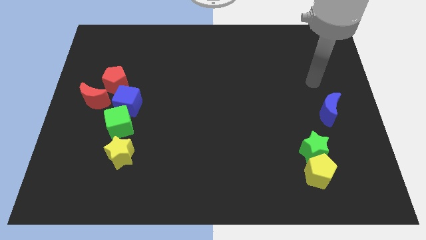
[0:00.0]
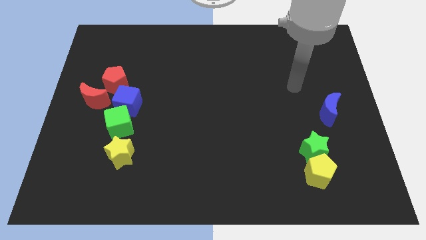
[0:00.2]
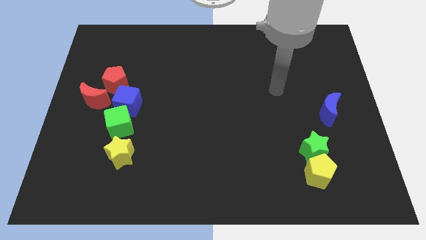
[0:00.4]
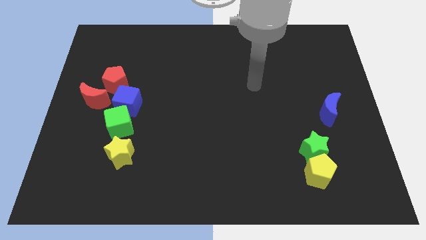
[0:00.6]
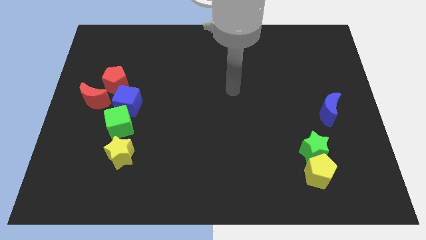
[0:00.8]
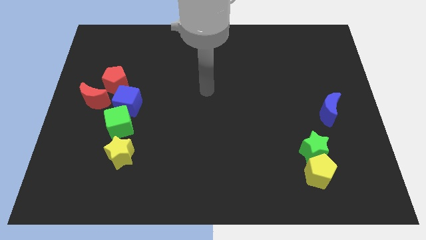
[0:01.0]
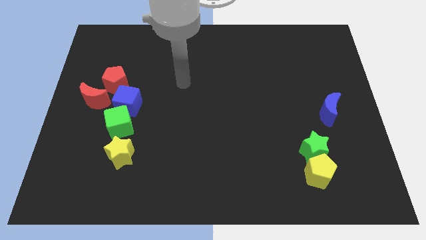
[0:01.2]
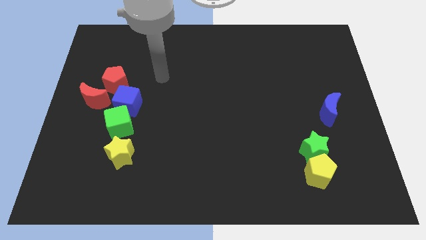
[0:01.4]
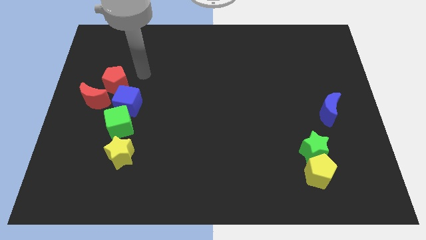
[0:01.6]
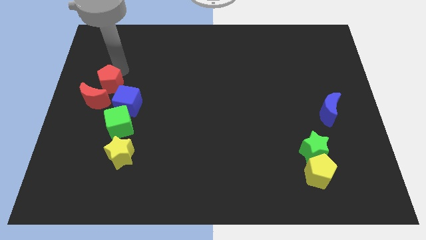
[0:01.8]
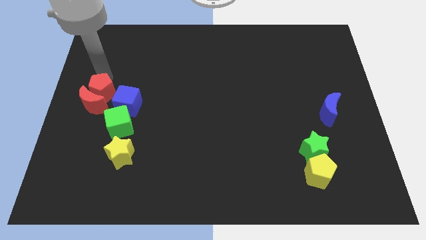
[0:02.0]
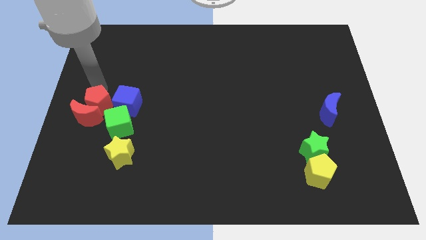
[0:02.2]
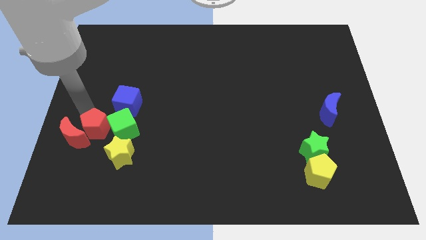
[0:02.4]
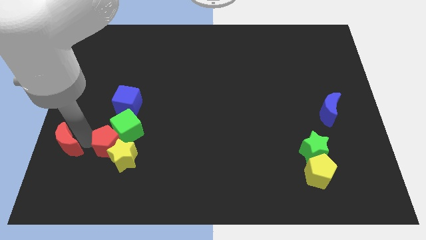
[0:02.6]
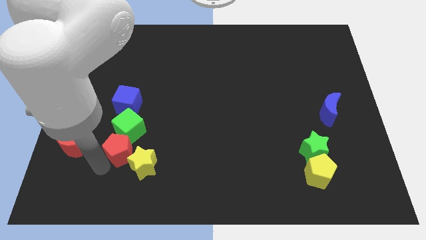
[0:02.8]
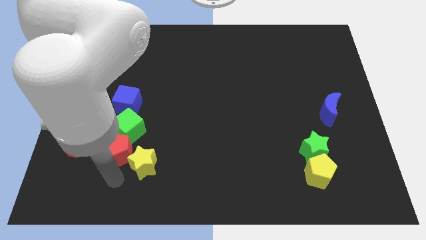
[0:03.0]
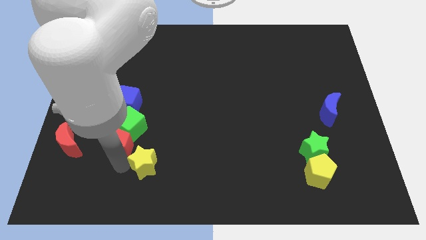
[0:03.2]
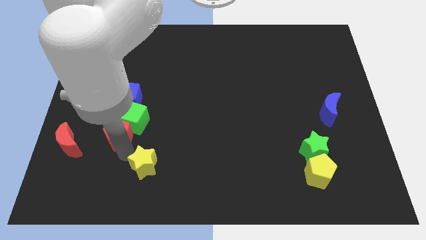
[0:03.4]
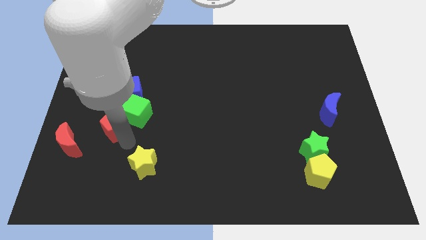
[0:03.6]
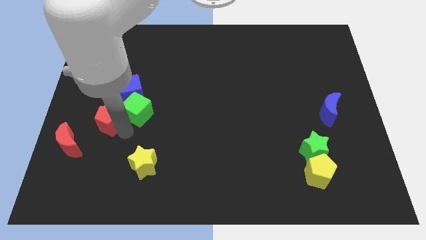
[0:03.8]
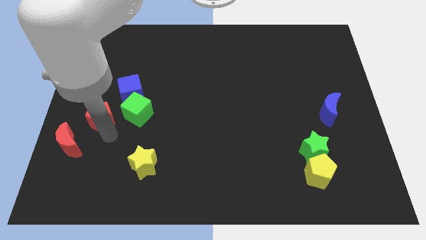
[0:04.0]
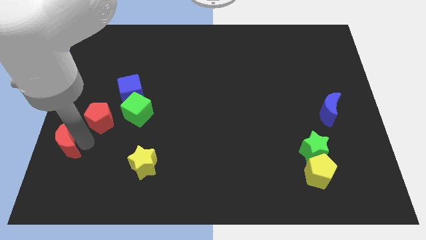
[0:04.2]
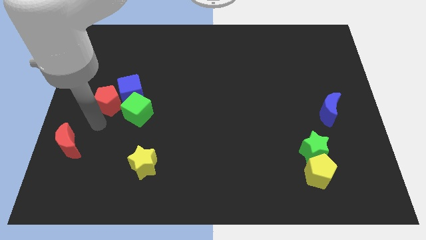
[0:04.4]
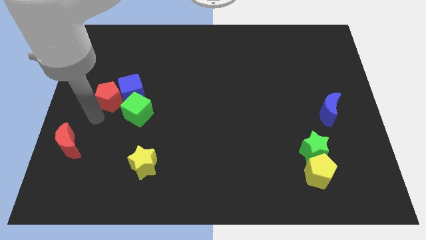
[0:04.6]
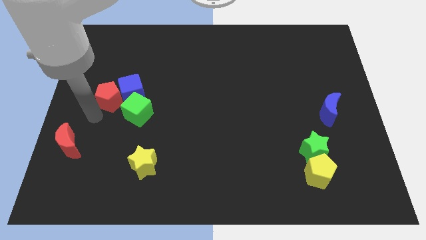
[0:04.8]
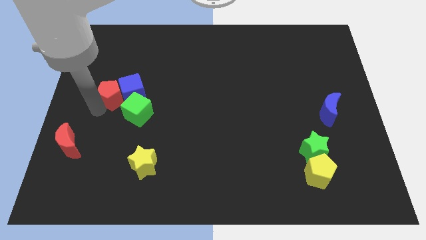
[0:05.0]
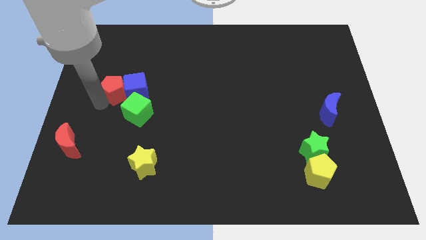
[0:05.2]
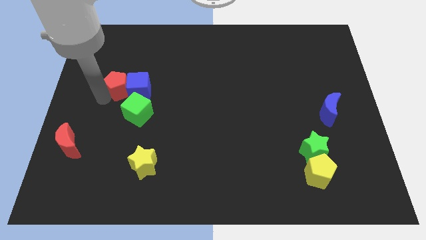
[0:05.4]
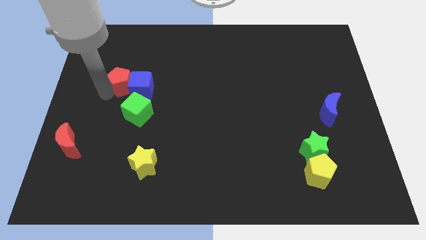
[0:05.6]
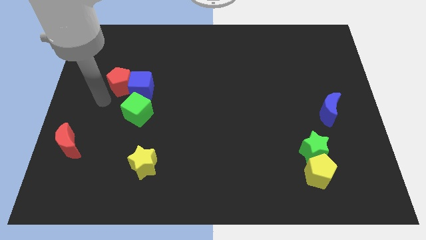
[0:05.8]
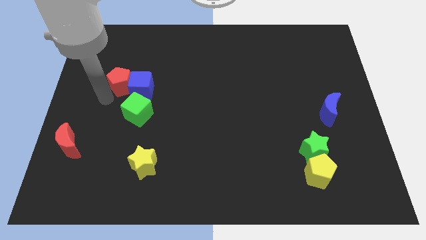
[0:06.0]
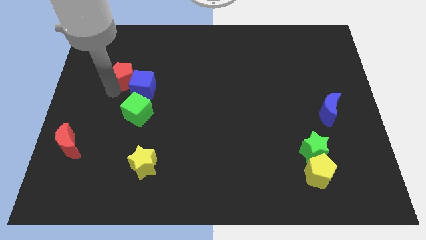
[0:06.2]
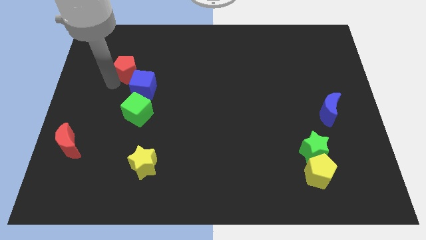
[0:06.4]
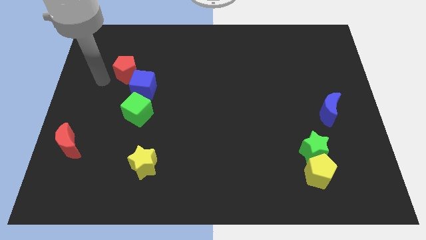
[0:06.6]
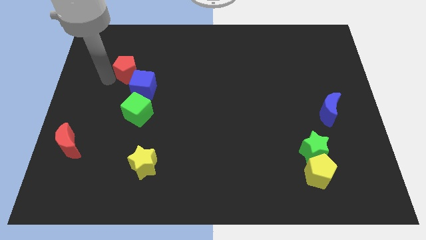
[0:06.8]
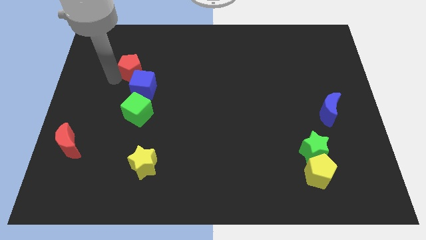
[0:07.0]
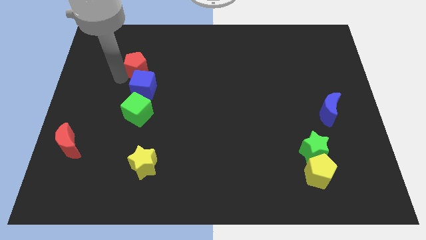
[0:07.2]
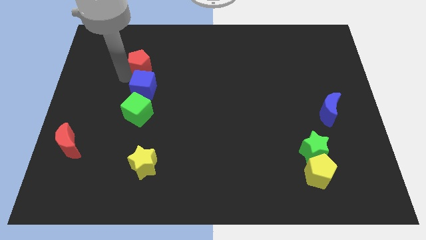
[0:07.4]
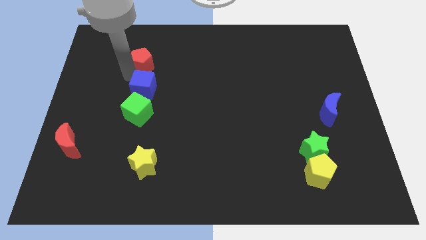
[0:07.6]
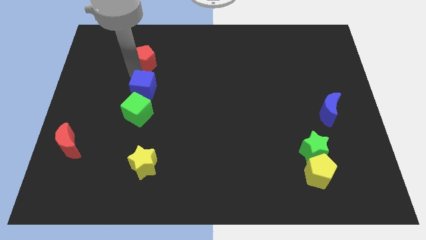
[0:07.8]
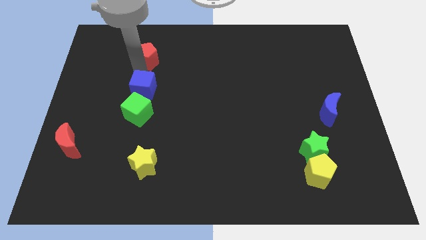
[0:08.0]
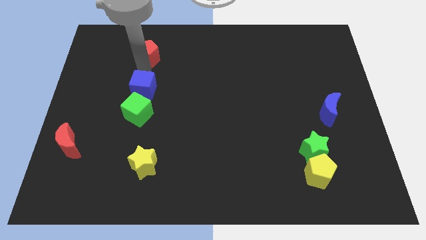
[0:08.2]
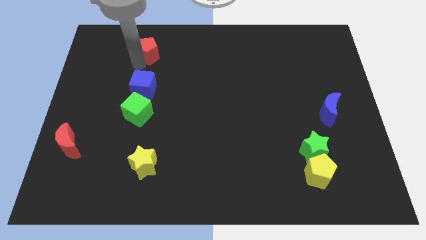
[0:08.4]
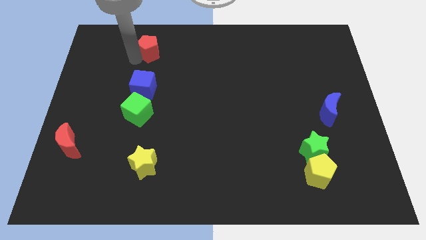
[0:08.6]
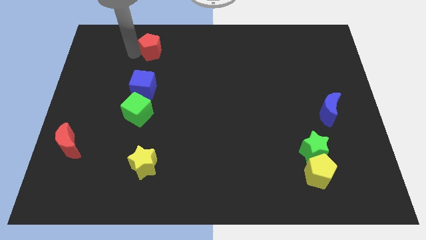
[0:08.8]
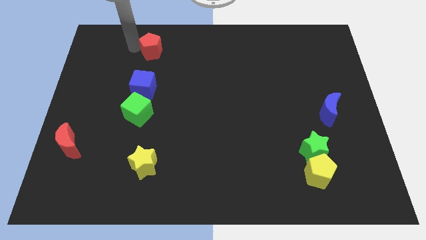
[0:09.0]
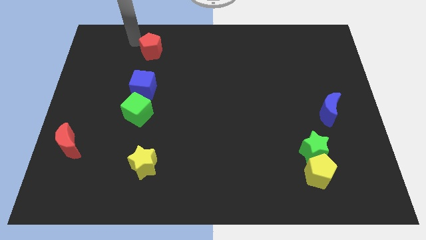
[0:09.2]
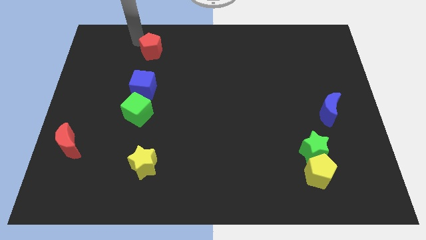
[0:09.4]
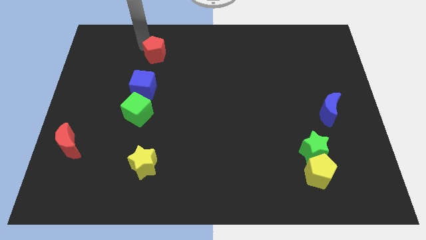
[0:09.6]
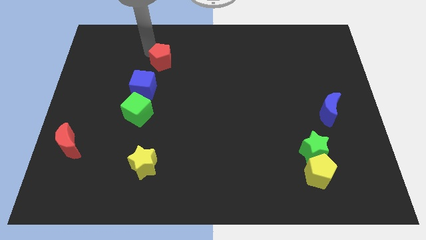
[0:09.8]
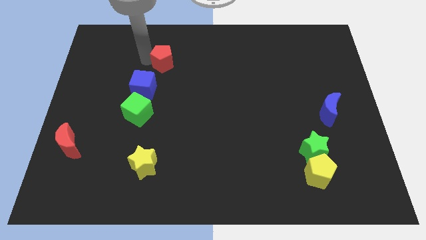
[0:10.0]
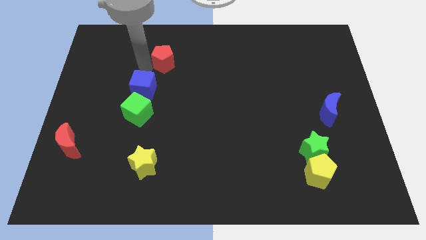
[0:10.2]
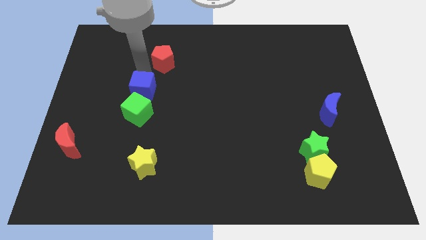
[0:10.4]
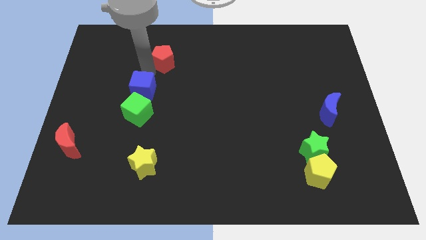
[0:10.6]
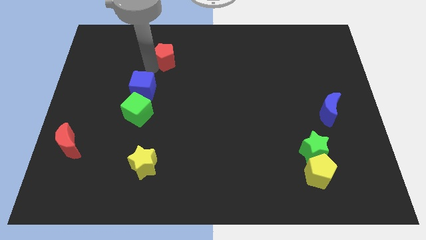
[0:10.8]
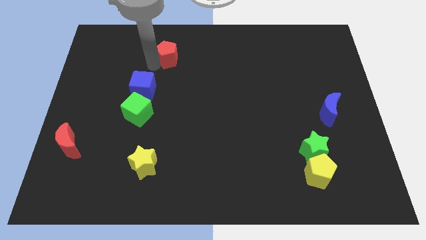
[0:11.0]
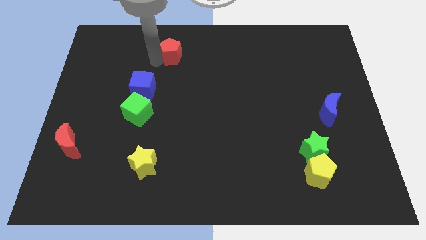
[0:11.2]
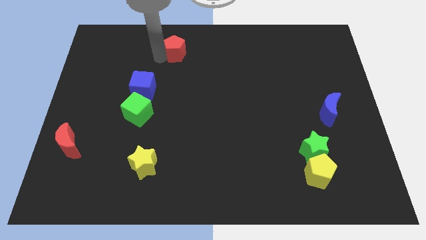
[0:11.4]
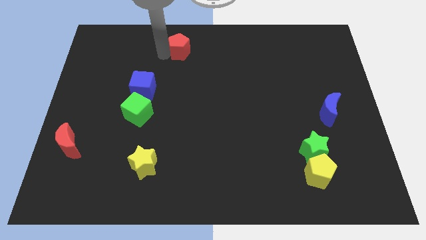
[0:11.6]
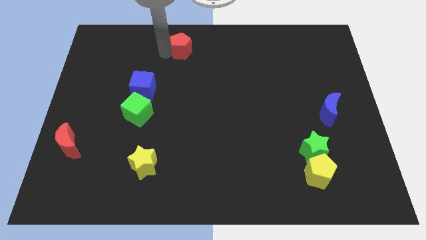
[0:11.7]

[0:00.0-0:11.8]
put the red pentagon to the top side

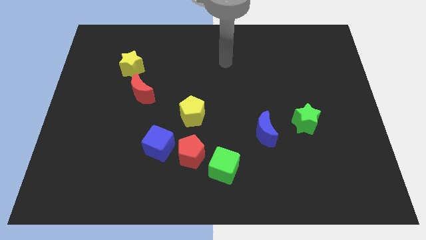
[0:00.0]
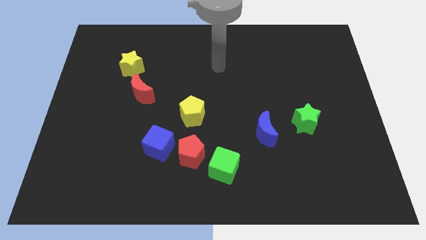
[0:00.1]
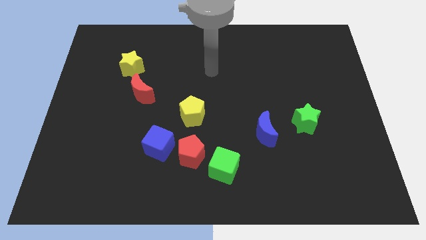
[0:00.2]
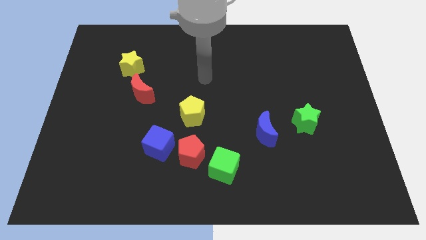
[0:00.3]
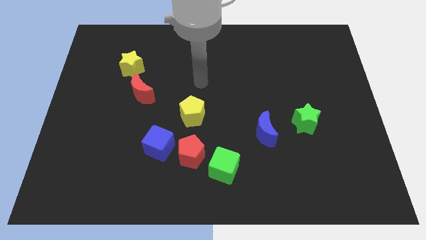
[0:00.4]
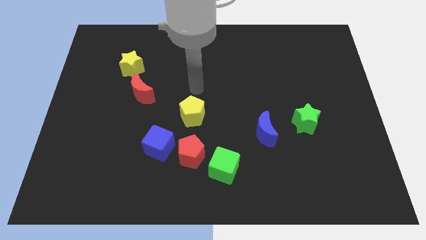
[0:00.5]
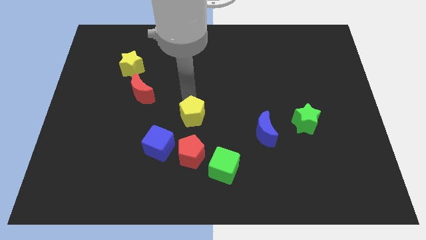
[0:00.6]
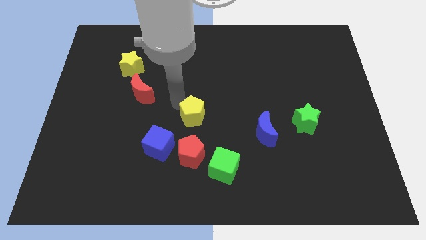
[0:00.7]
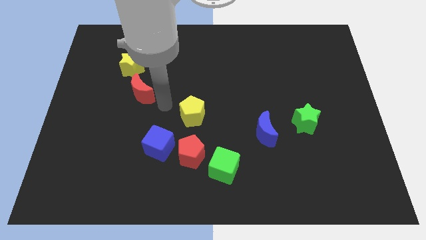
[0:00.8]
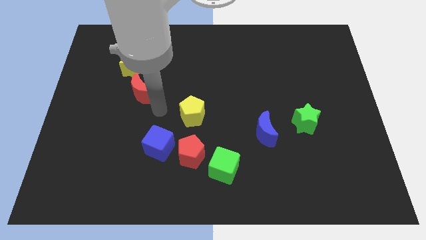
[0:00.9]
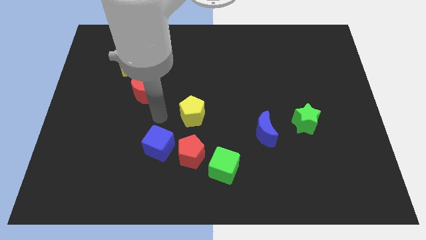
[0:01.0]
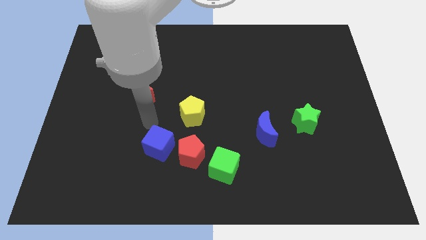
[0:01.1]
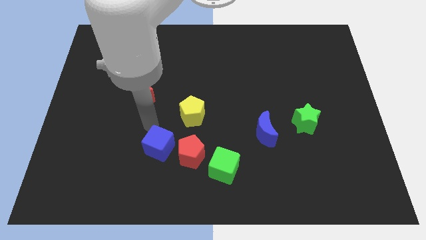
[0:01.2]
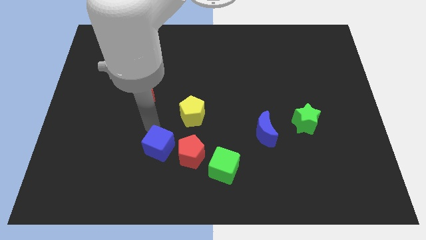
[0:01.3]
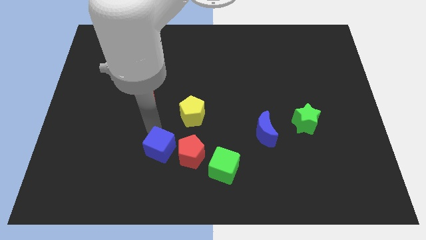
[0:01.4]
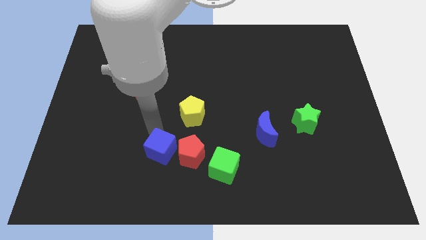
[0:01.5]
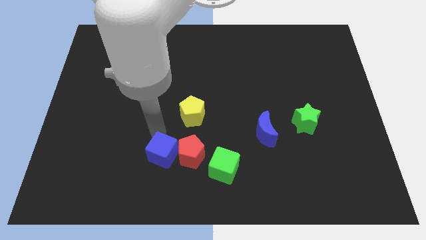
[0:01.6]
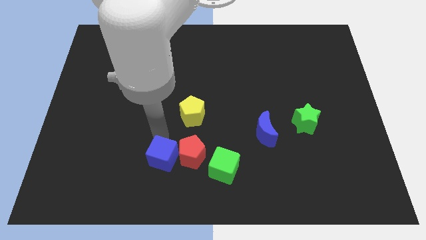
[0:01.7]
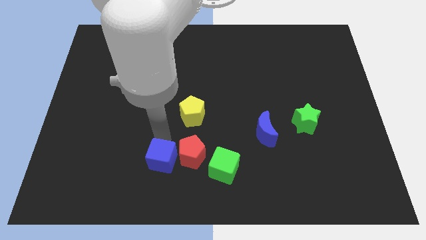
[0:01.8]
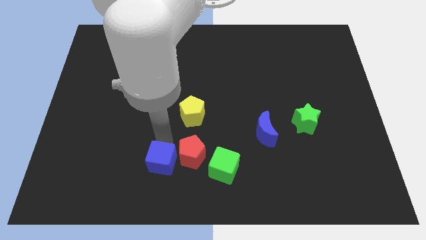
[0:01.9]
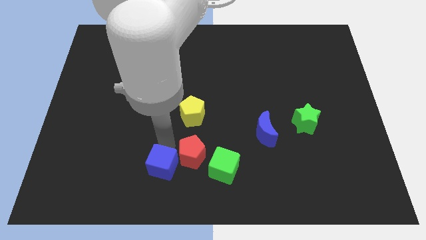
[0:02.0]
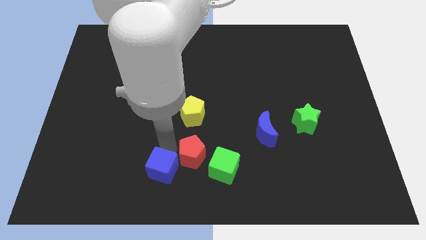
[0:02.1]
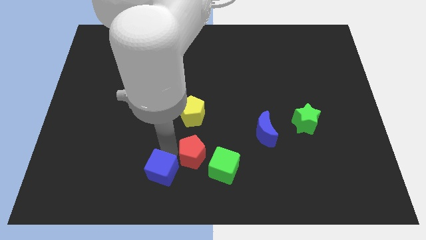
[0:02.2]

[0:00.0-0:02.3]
move the blue cube to the bottom side
